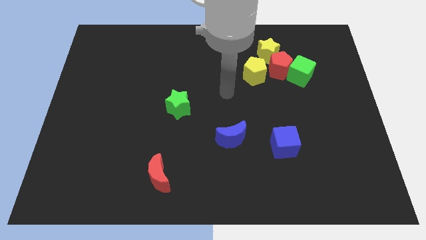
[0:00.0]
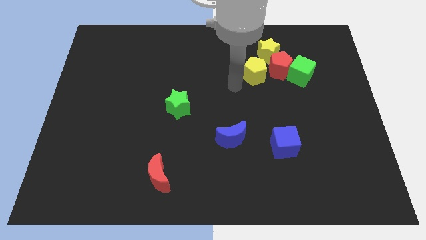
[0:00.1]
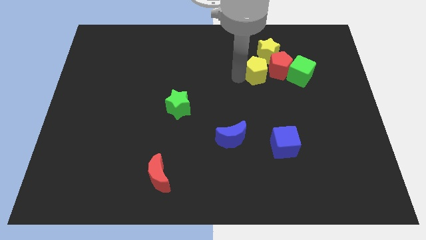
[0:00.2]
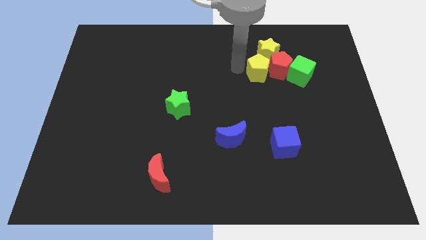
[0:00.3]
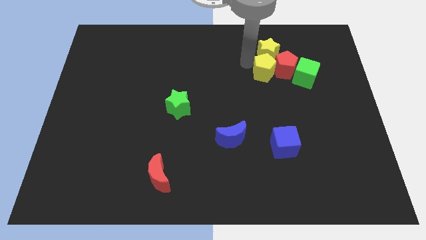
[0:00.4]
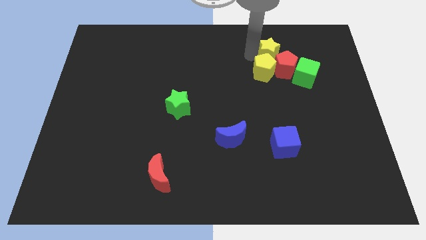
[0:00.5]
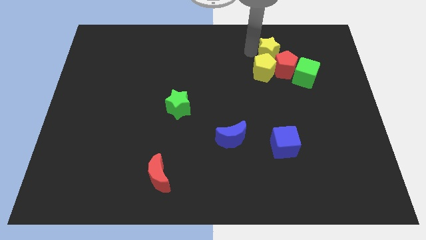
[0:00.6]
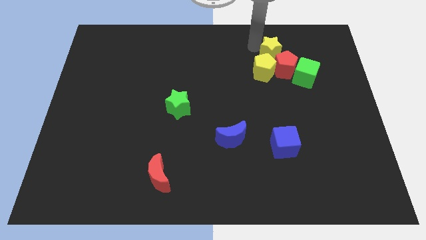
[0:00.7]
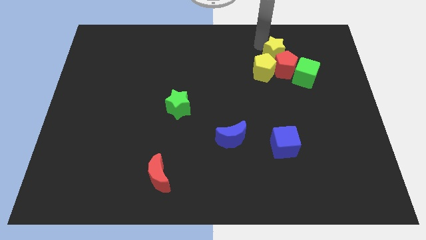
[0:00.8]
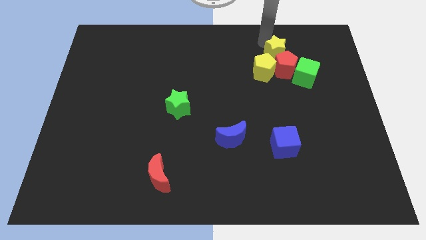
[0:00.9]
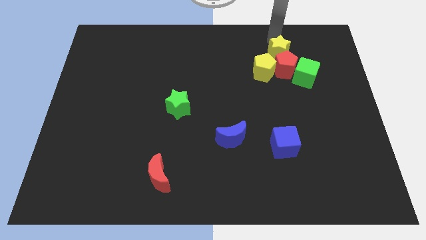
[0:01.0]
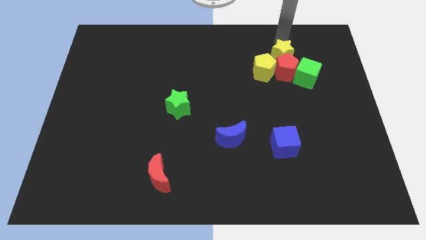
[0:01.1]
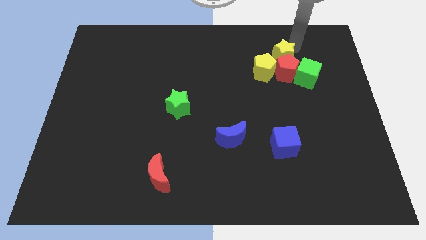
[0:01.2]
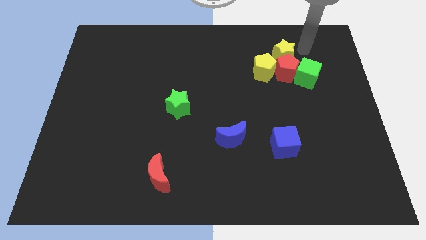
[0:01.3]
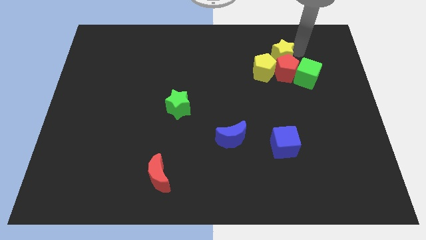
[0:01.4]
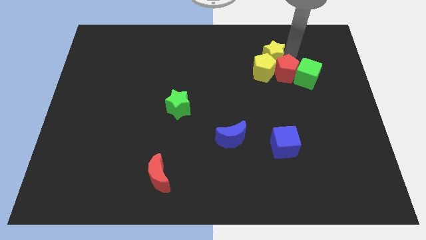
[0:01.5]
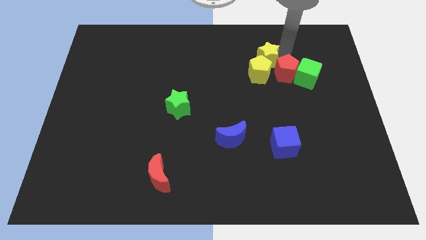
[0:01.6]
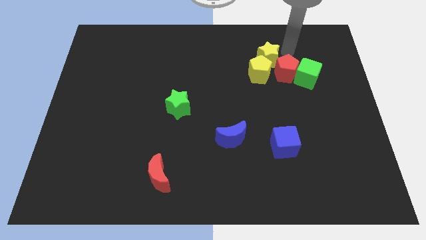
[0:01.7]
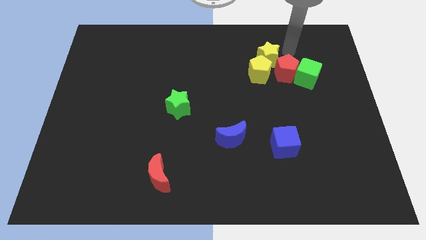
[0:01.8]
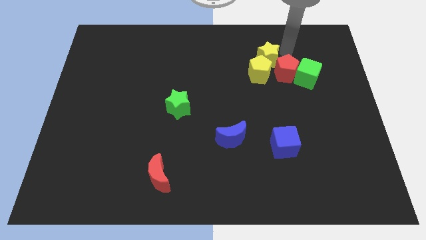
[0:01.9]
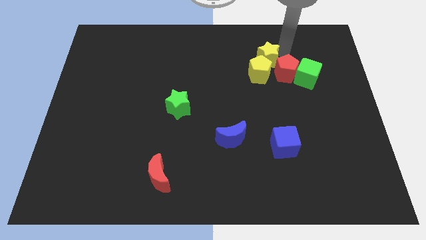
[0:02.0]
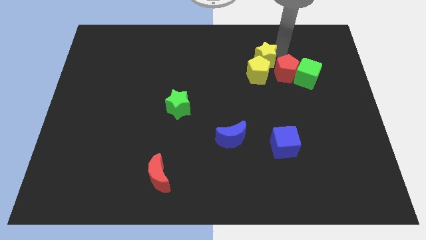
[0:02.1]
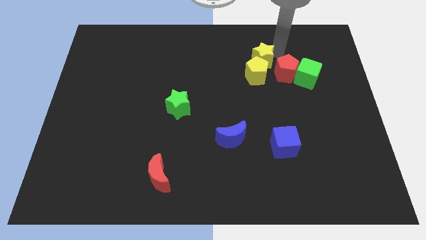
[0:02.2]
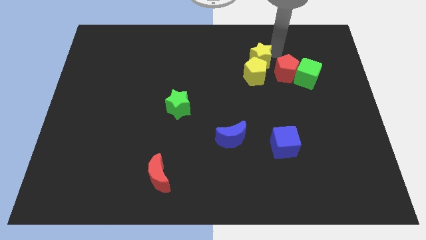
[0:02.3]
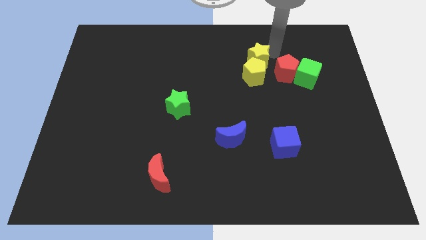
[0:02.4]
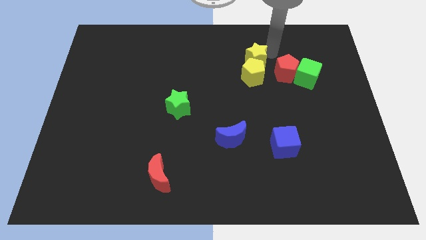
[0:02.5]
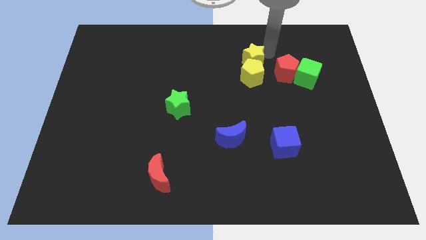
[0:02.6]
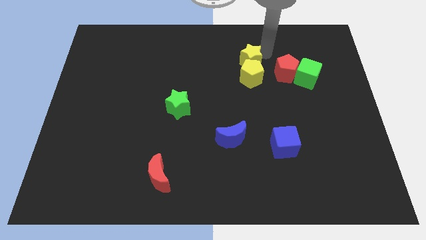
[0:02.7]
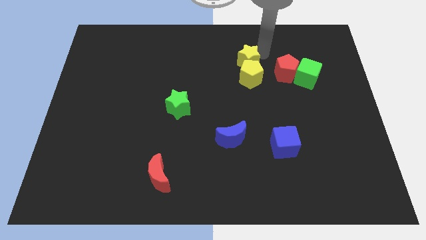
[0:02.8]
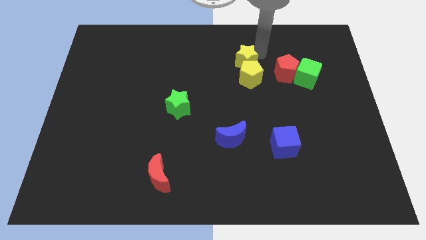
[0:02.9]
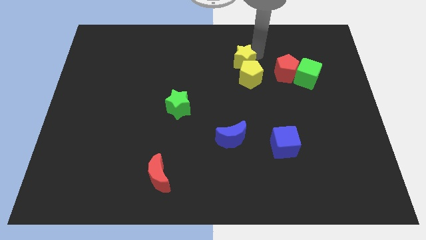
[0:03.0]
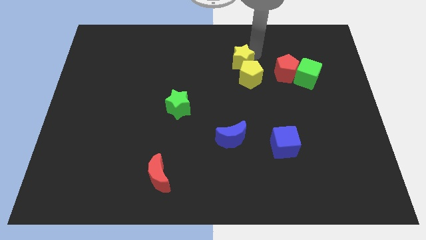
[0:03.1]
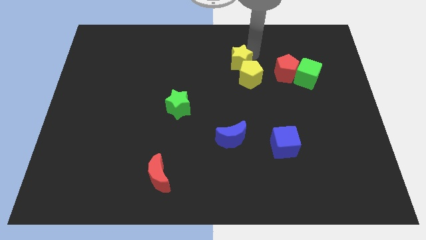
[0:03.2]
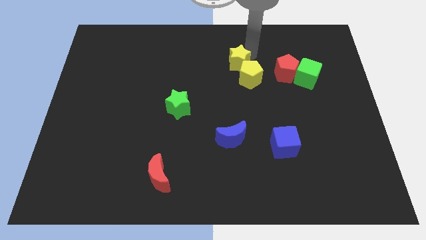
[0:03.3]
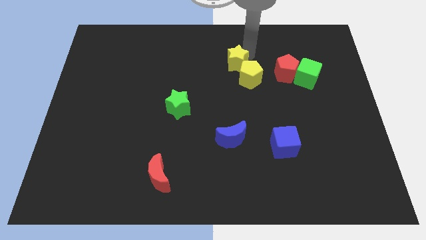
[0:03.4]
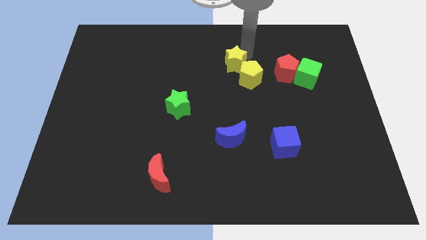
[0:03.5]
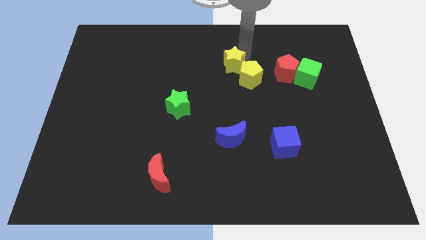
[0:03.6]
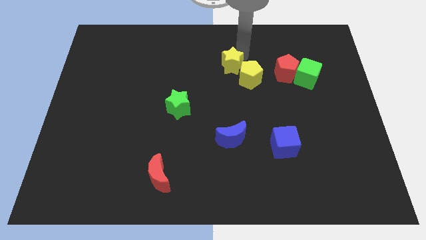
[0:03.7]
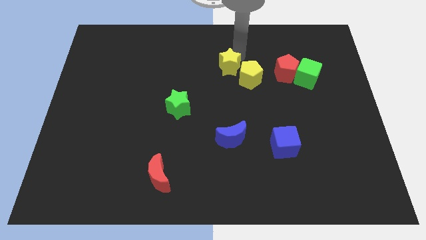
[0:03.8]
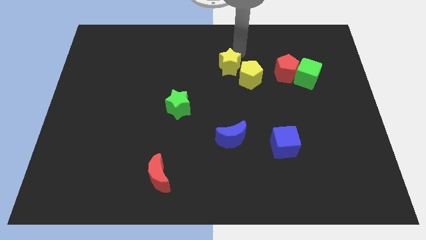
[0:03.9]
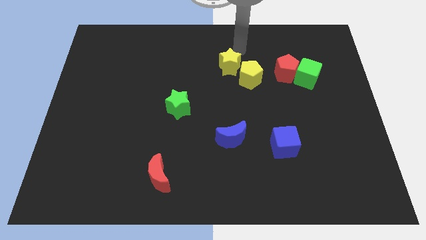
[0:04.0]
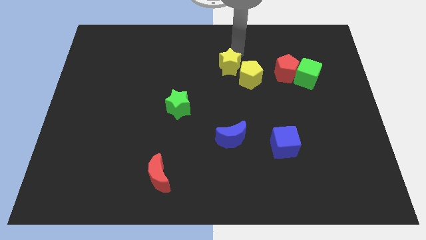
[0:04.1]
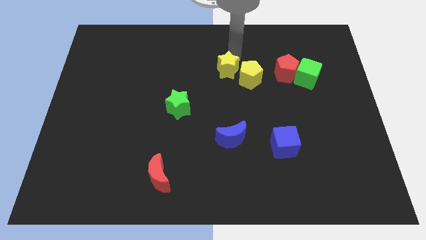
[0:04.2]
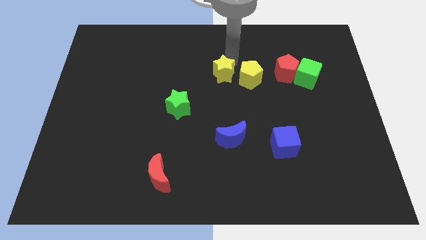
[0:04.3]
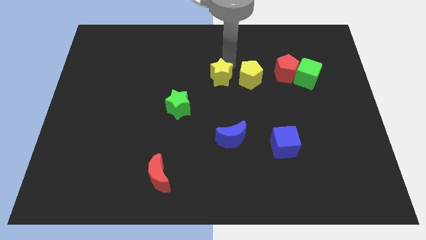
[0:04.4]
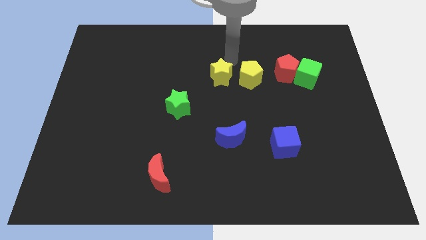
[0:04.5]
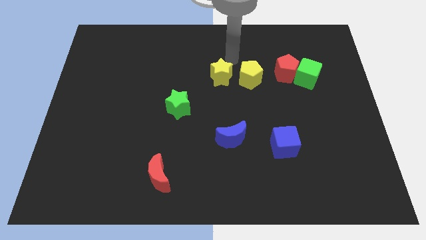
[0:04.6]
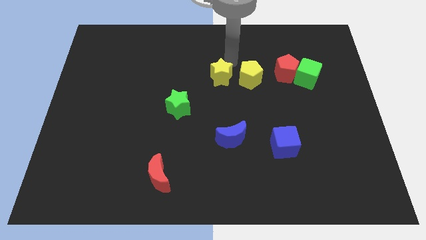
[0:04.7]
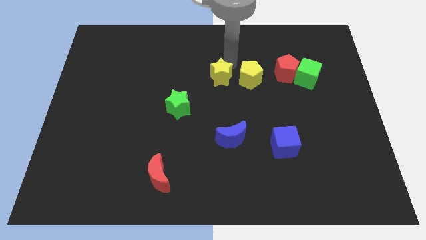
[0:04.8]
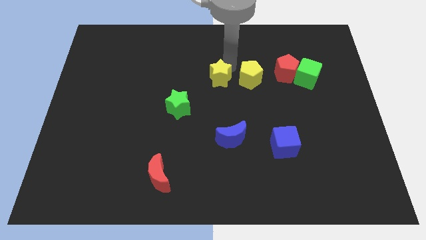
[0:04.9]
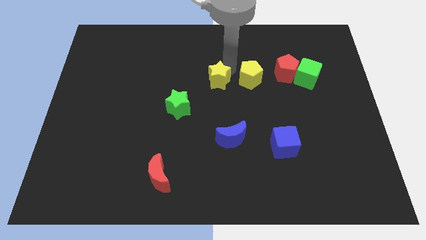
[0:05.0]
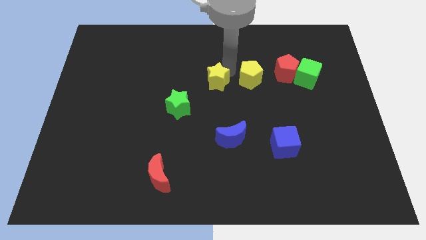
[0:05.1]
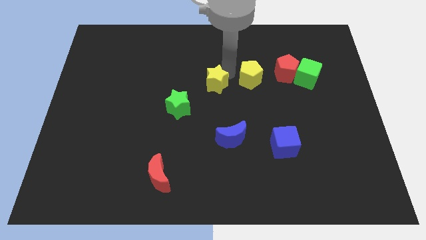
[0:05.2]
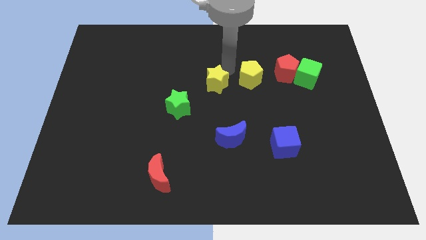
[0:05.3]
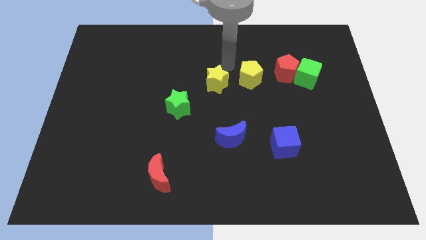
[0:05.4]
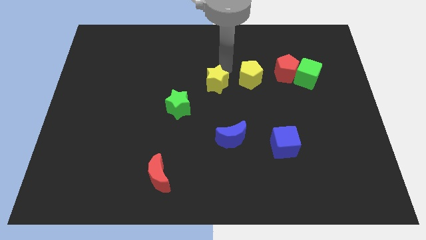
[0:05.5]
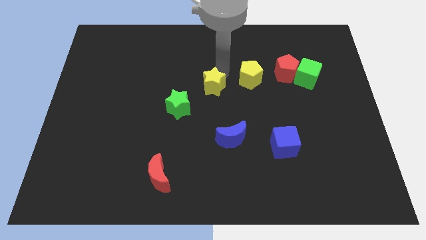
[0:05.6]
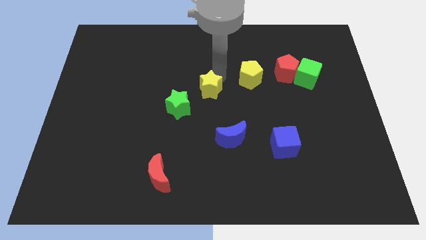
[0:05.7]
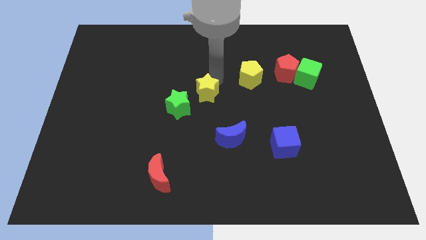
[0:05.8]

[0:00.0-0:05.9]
slide the yellow star downwards and then left

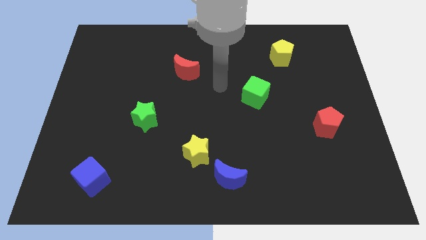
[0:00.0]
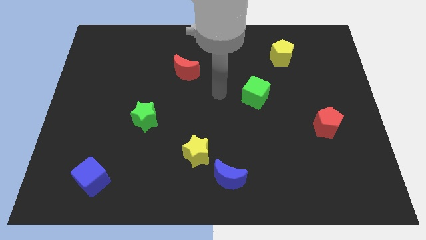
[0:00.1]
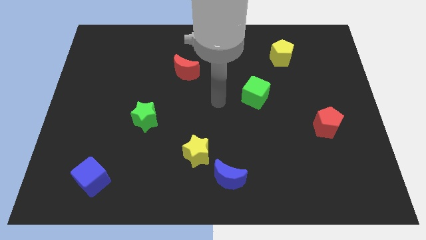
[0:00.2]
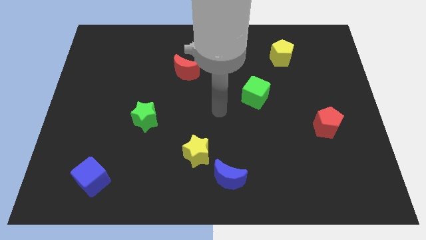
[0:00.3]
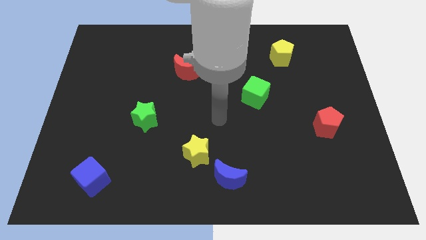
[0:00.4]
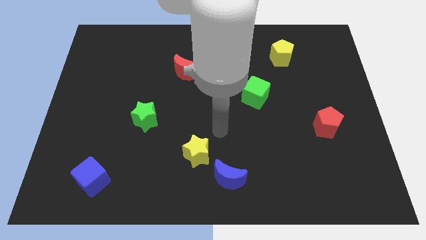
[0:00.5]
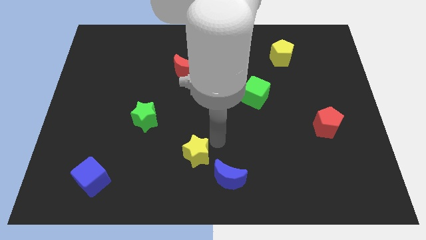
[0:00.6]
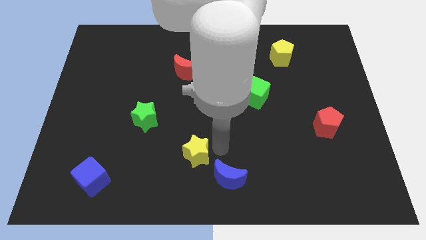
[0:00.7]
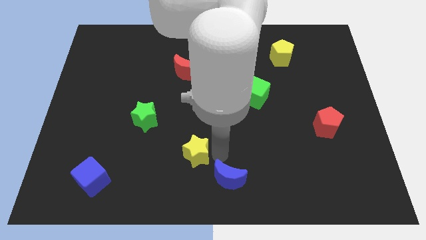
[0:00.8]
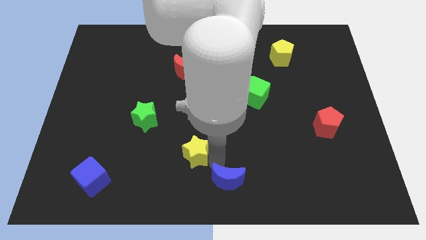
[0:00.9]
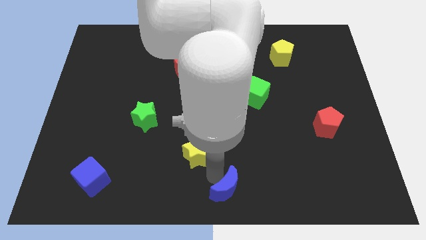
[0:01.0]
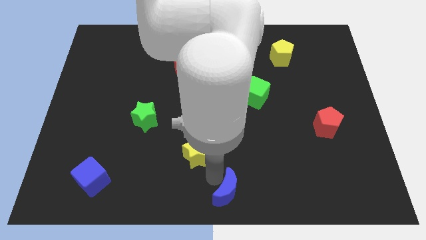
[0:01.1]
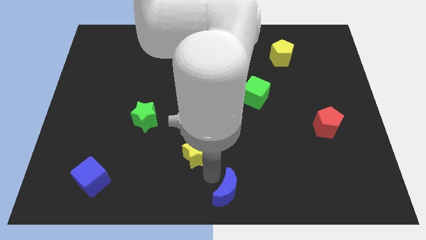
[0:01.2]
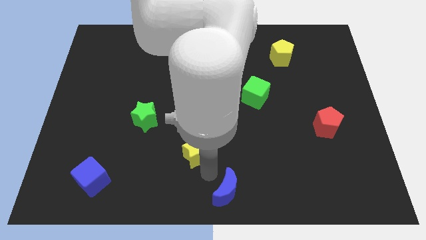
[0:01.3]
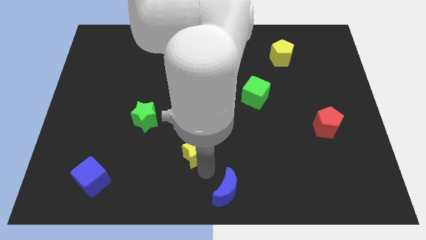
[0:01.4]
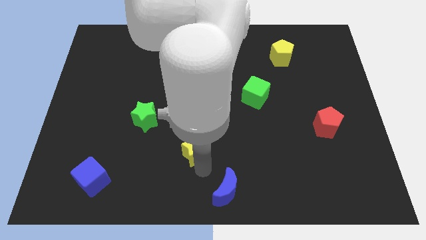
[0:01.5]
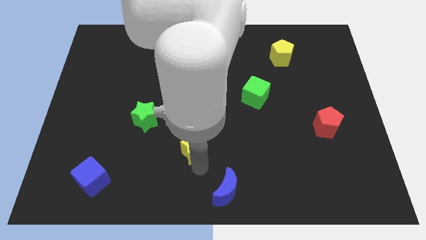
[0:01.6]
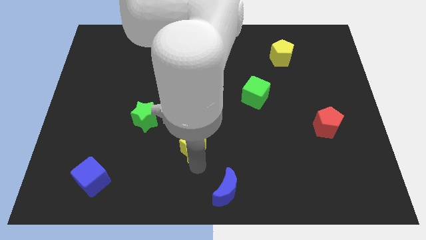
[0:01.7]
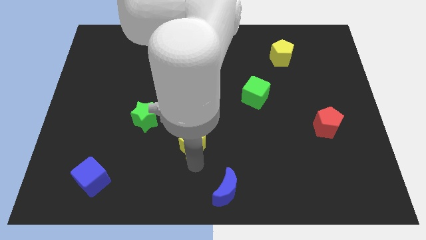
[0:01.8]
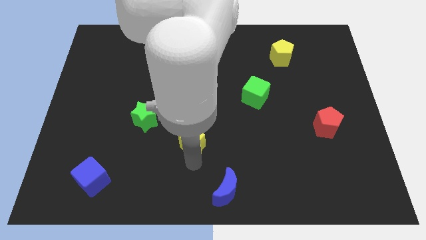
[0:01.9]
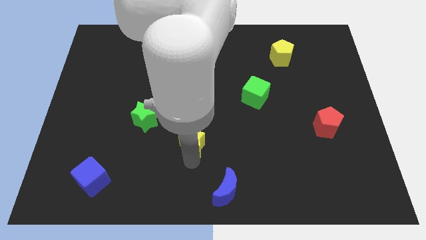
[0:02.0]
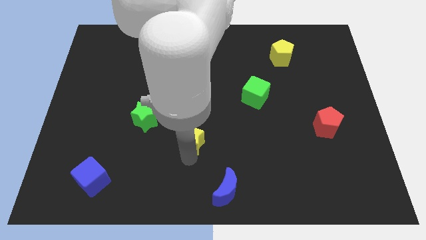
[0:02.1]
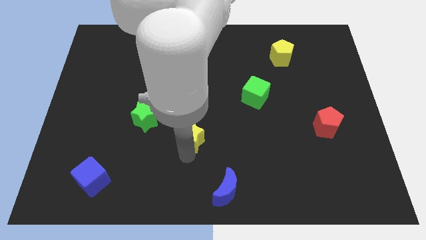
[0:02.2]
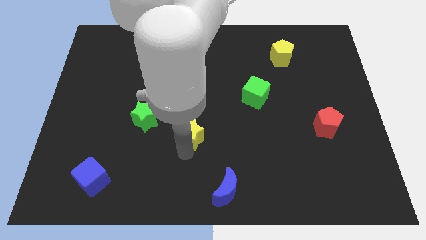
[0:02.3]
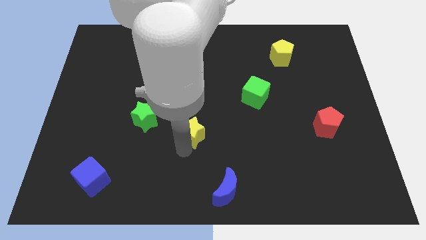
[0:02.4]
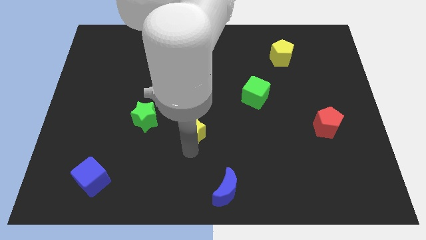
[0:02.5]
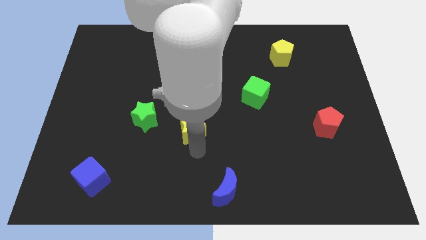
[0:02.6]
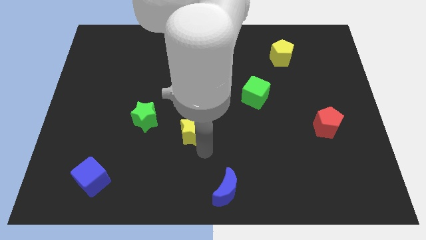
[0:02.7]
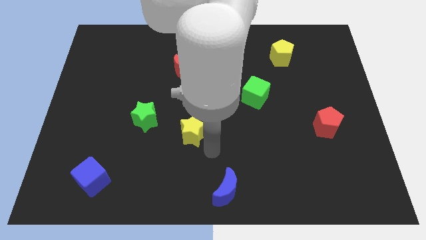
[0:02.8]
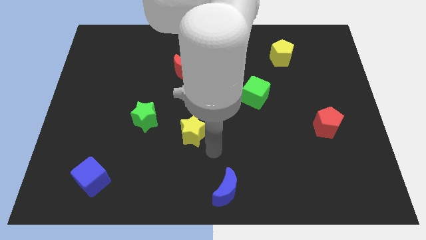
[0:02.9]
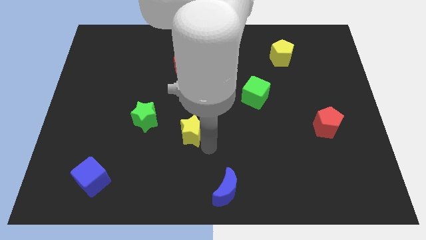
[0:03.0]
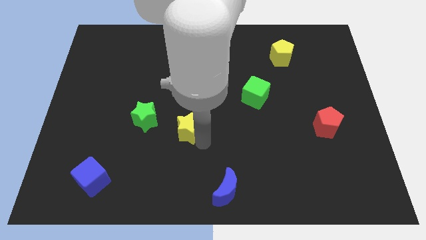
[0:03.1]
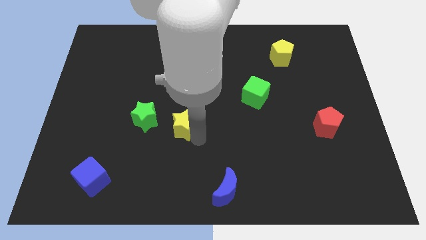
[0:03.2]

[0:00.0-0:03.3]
push the yellow star upwards and left a little bit
